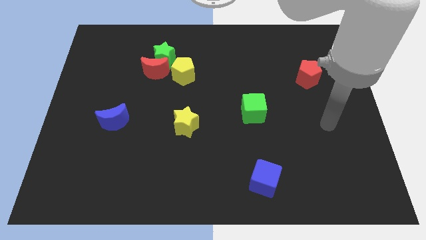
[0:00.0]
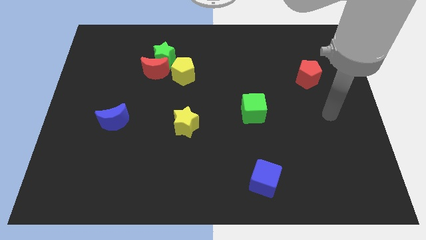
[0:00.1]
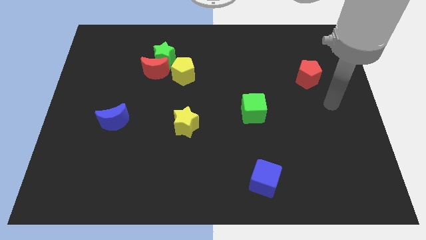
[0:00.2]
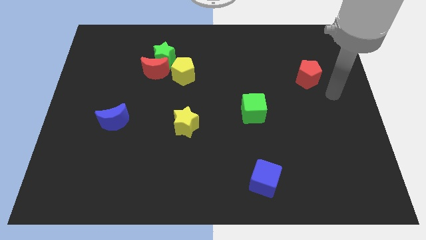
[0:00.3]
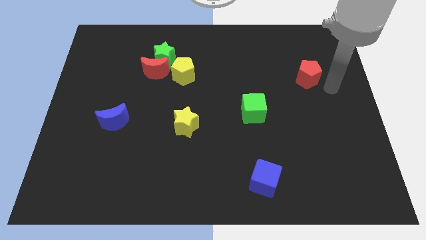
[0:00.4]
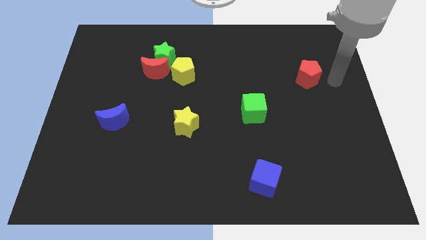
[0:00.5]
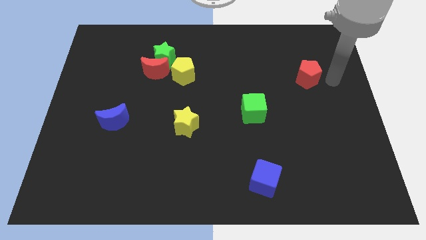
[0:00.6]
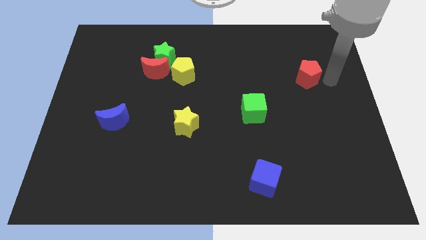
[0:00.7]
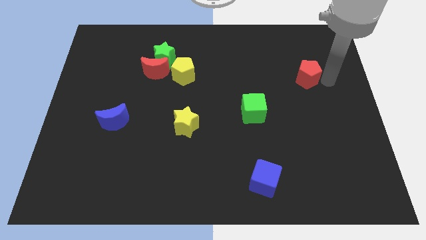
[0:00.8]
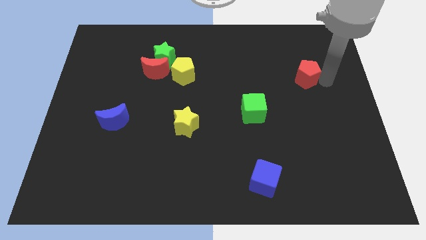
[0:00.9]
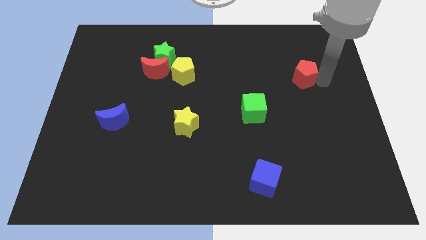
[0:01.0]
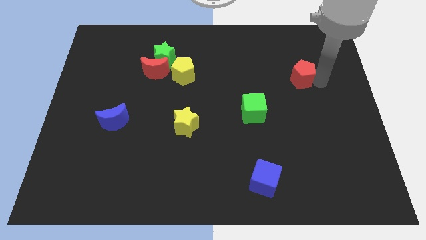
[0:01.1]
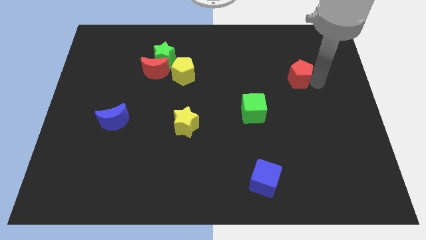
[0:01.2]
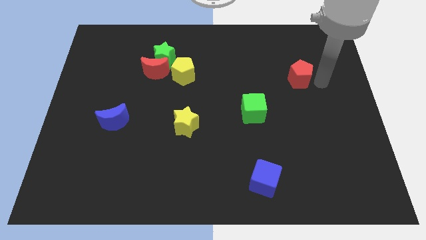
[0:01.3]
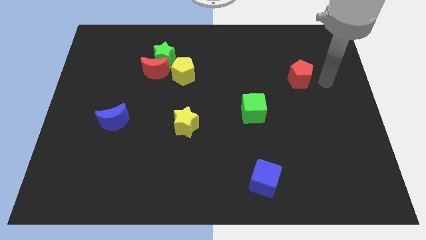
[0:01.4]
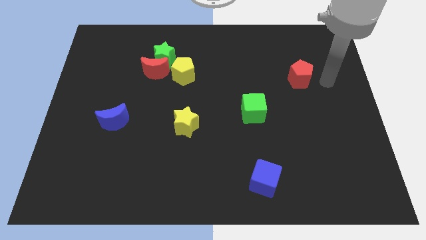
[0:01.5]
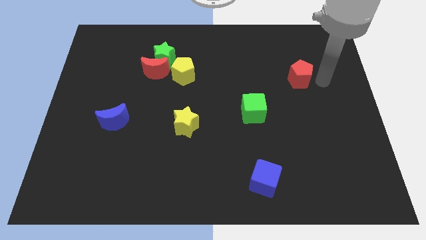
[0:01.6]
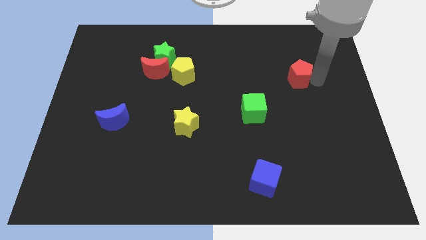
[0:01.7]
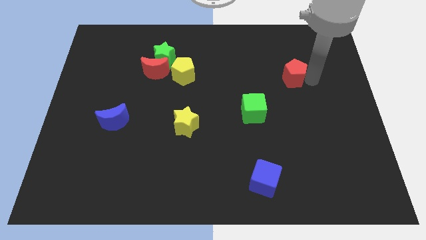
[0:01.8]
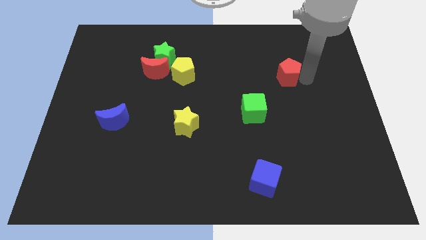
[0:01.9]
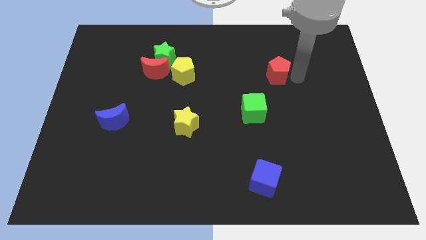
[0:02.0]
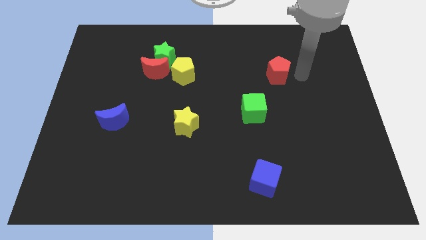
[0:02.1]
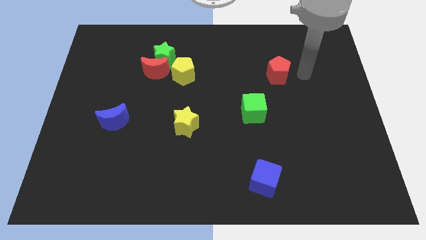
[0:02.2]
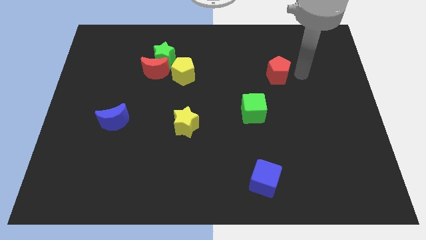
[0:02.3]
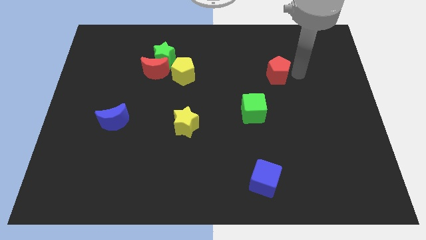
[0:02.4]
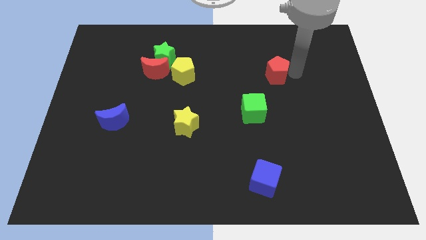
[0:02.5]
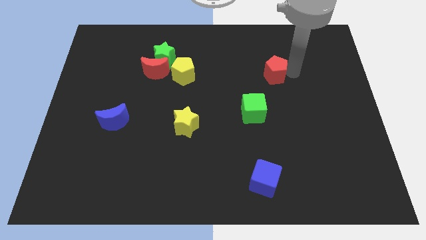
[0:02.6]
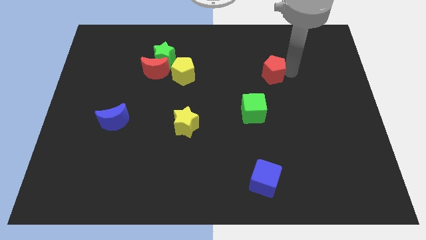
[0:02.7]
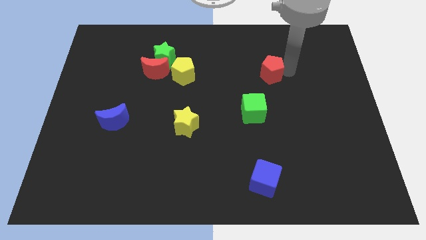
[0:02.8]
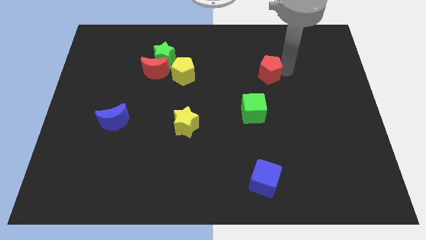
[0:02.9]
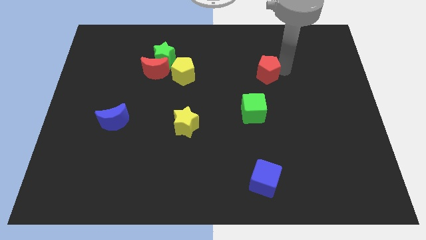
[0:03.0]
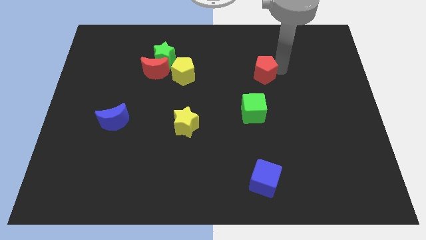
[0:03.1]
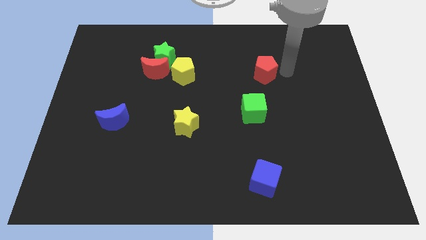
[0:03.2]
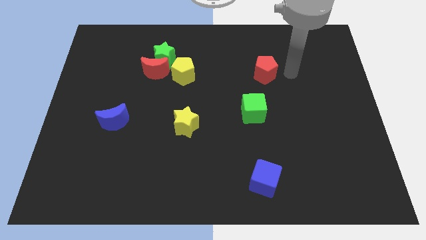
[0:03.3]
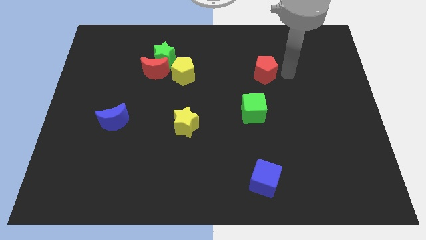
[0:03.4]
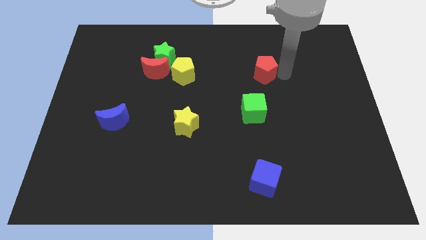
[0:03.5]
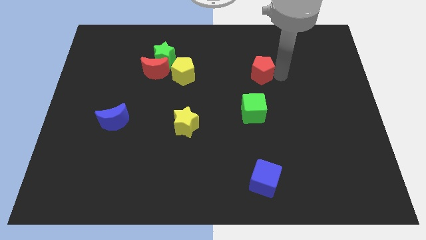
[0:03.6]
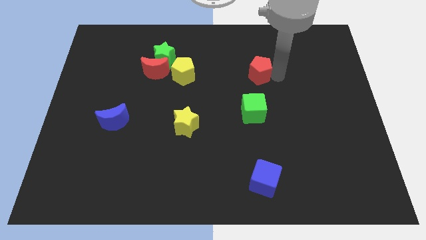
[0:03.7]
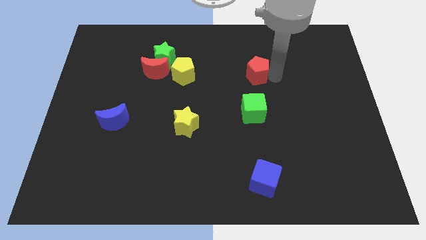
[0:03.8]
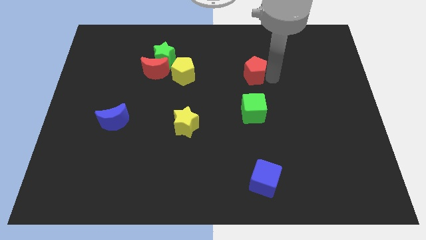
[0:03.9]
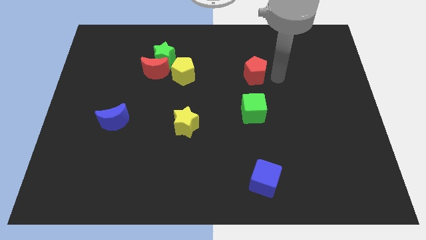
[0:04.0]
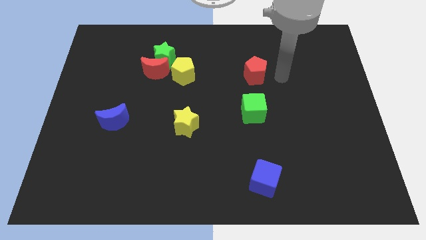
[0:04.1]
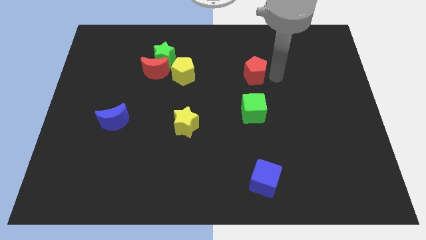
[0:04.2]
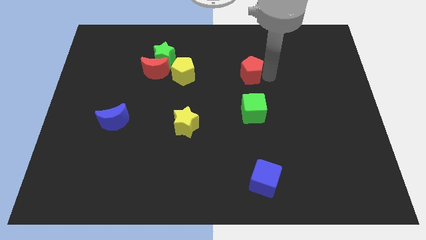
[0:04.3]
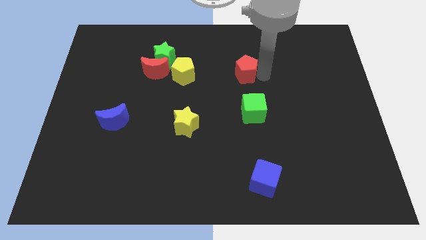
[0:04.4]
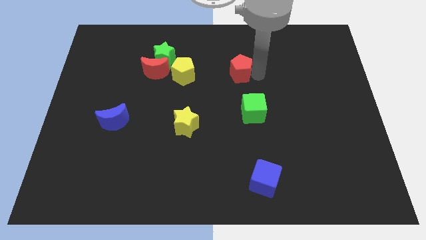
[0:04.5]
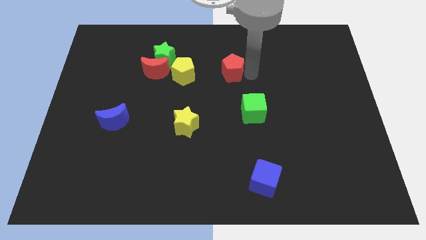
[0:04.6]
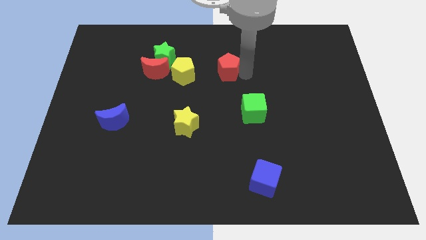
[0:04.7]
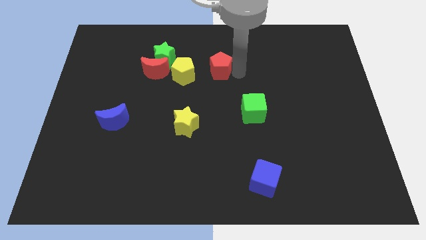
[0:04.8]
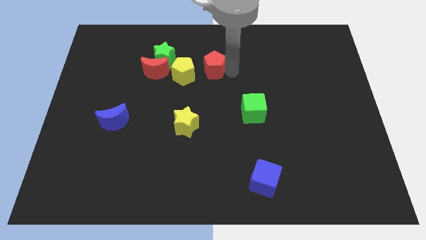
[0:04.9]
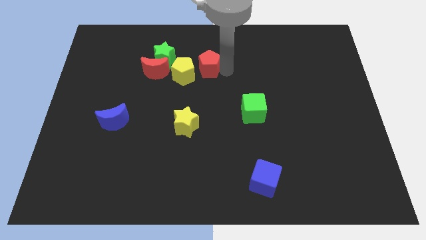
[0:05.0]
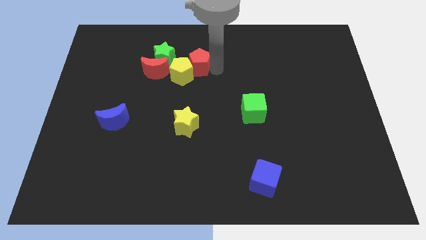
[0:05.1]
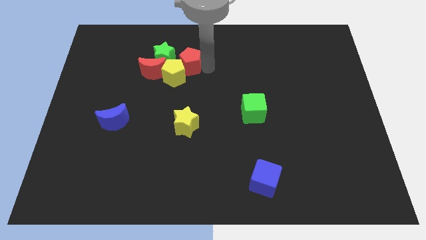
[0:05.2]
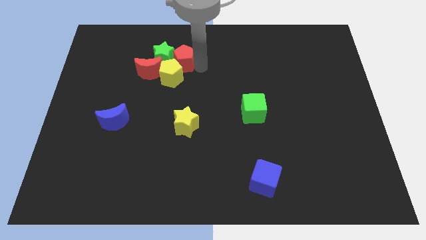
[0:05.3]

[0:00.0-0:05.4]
push the red pentagon to the green star

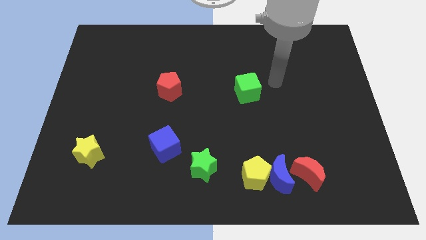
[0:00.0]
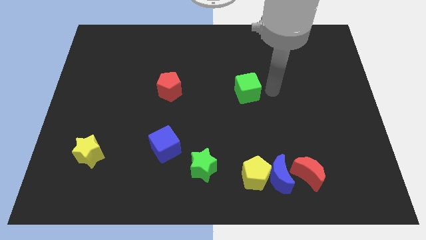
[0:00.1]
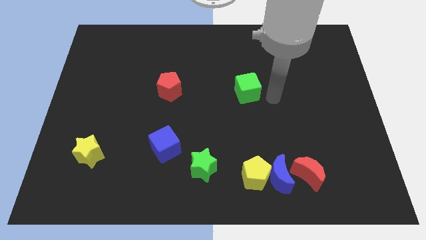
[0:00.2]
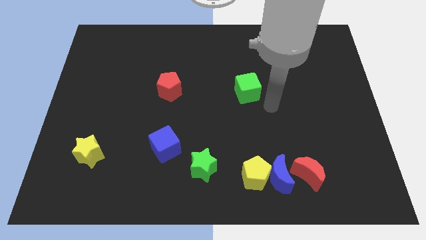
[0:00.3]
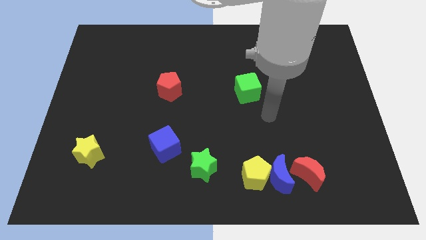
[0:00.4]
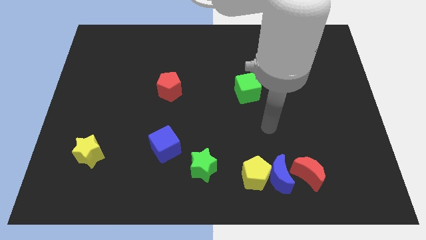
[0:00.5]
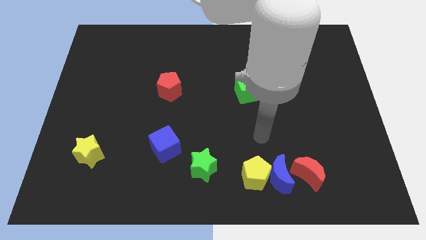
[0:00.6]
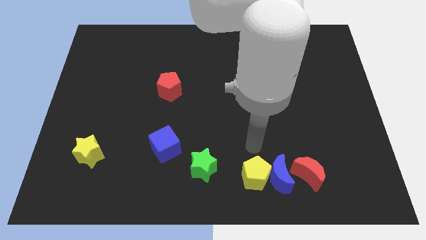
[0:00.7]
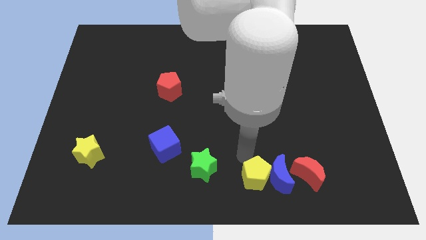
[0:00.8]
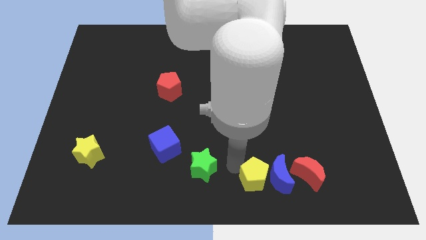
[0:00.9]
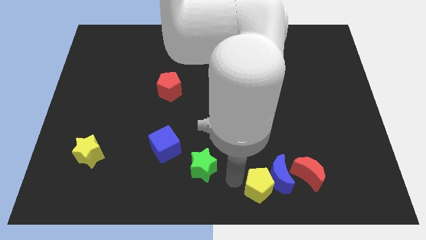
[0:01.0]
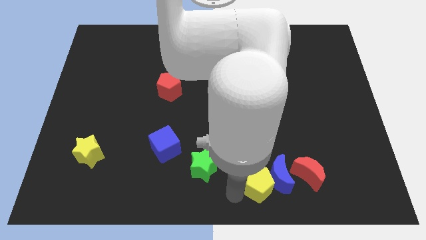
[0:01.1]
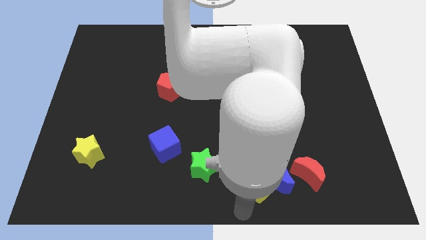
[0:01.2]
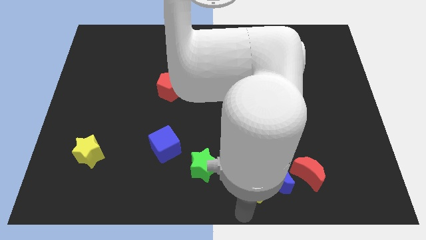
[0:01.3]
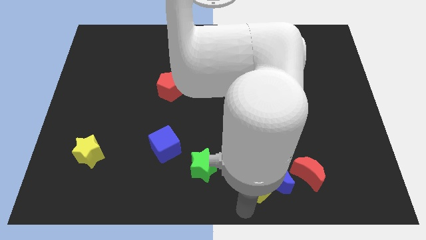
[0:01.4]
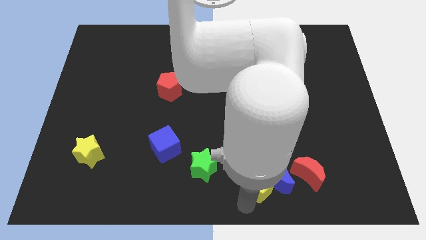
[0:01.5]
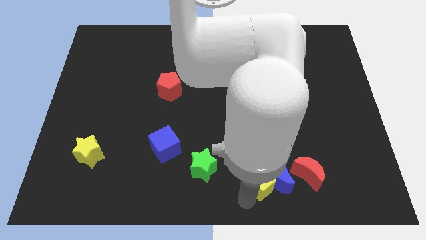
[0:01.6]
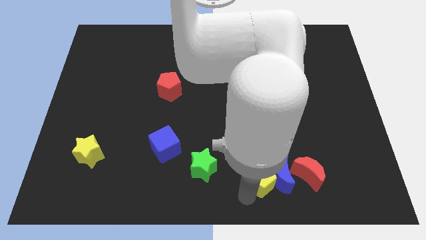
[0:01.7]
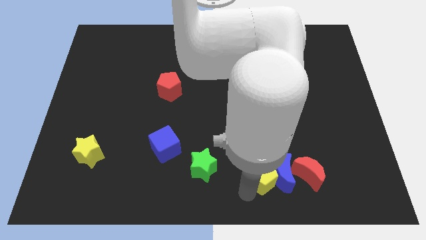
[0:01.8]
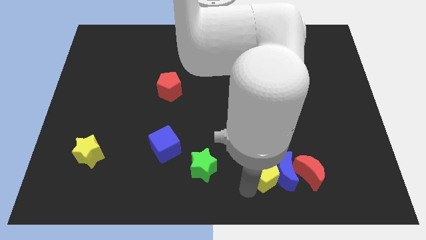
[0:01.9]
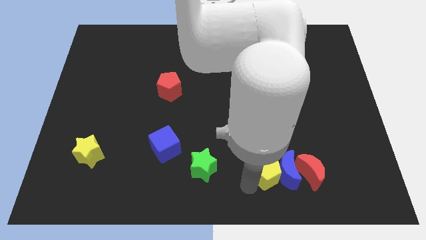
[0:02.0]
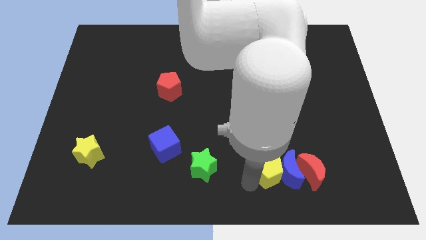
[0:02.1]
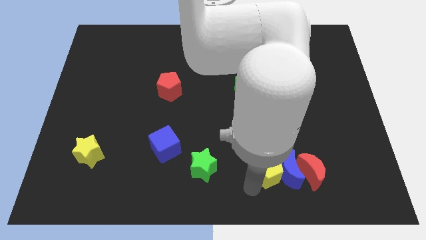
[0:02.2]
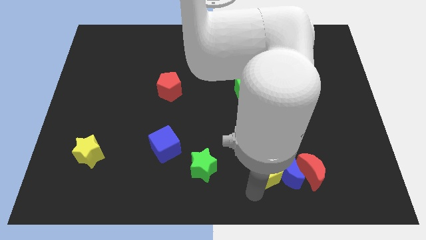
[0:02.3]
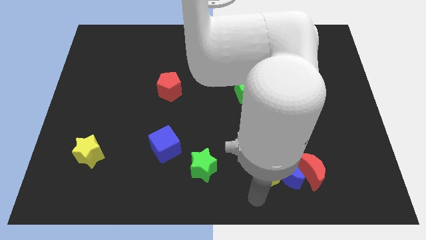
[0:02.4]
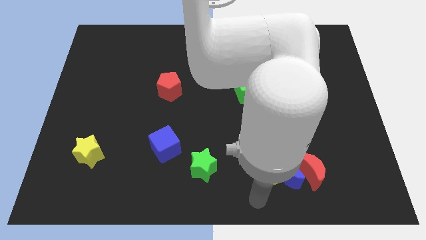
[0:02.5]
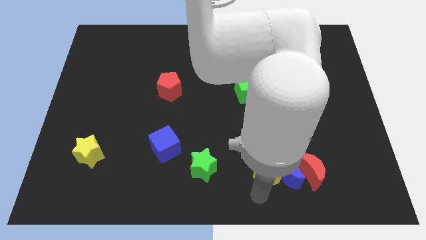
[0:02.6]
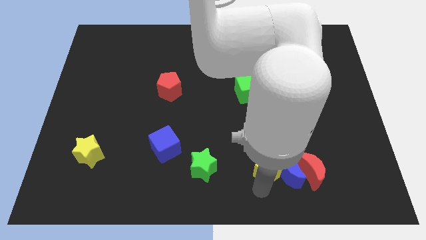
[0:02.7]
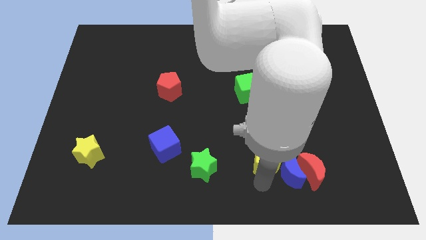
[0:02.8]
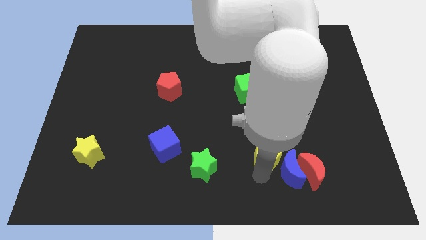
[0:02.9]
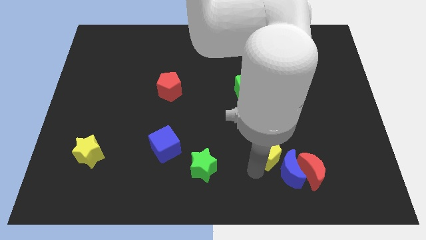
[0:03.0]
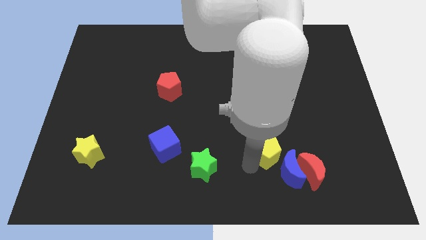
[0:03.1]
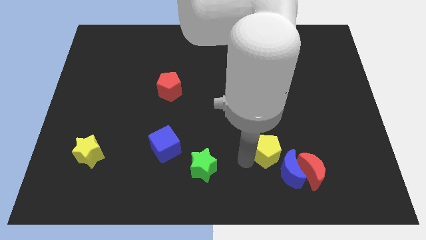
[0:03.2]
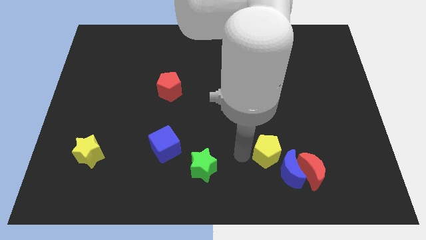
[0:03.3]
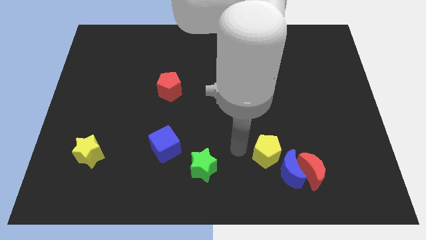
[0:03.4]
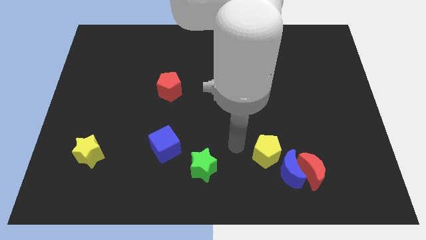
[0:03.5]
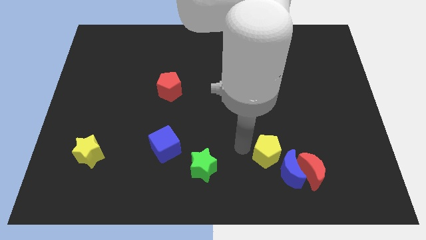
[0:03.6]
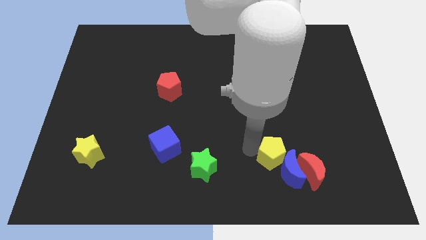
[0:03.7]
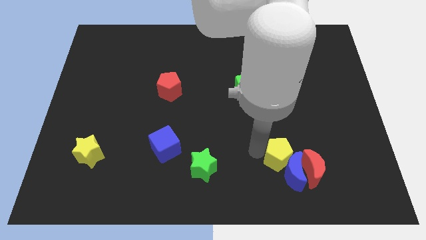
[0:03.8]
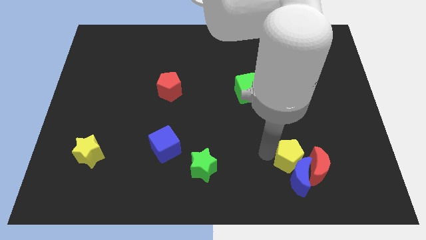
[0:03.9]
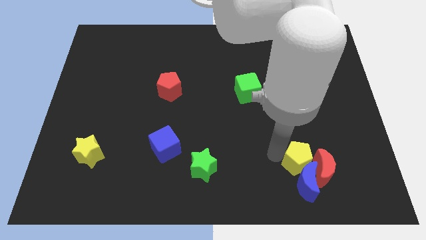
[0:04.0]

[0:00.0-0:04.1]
push the yellow pentagon to the red moon
